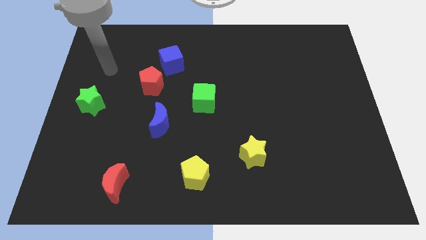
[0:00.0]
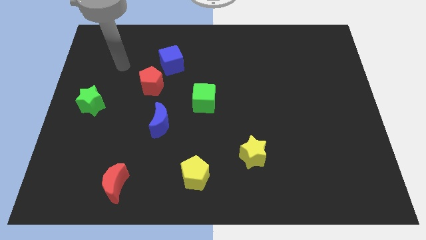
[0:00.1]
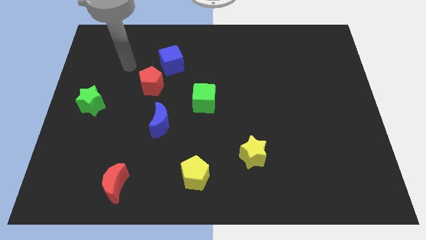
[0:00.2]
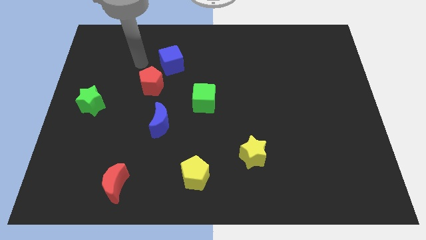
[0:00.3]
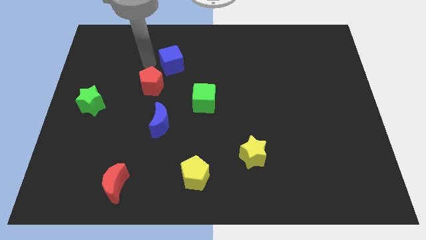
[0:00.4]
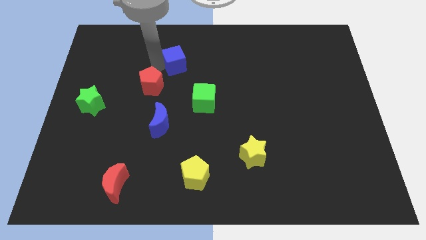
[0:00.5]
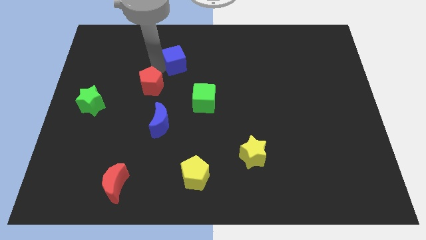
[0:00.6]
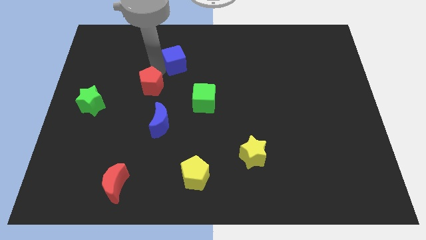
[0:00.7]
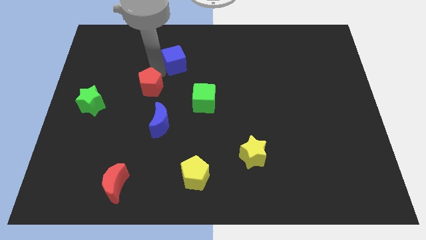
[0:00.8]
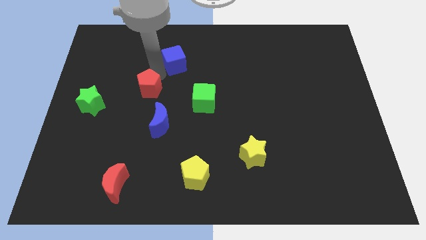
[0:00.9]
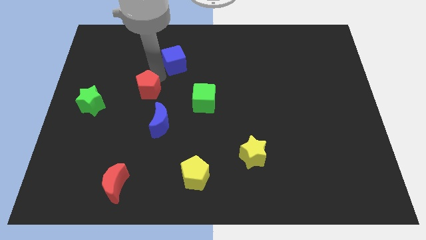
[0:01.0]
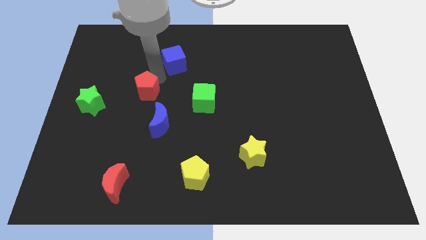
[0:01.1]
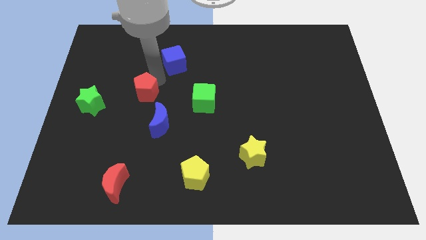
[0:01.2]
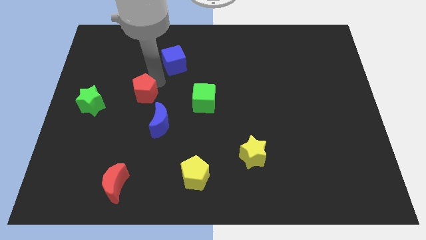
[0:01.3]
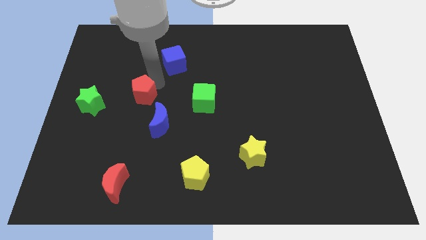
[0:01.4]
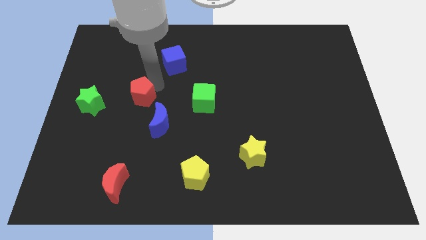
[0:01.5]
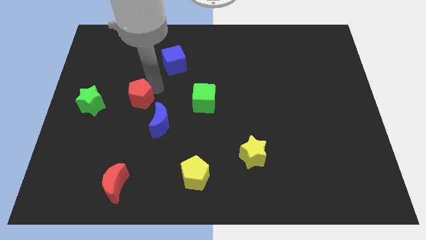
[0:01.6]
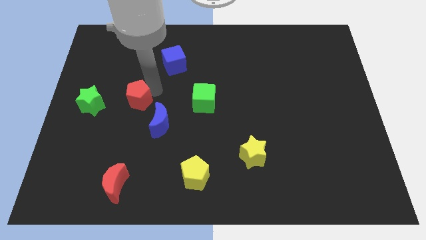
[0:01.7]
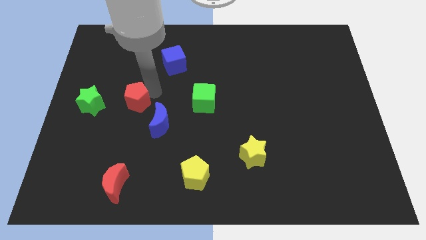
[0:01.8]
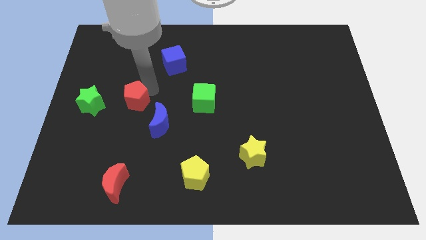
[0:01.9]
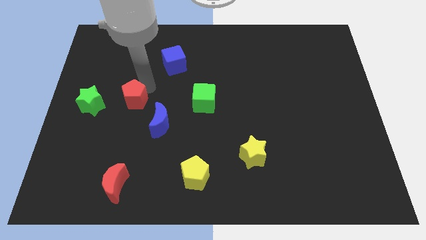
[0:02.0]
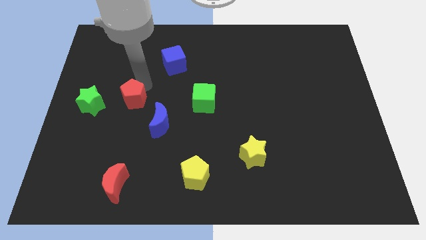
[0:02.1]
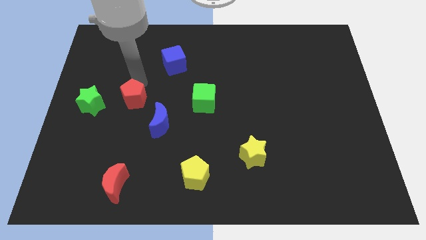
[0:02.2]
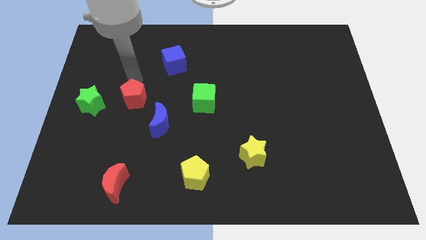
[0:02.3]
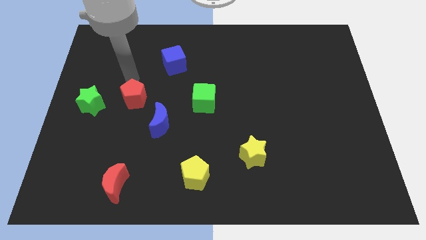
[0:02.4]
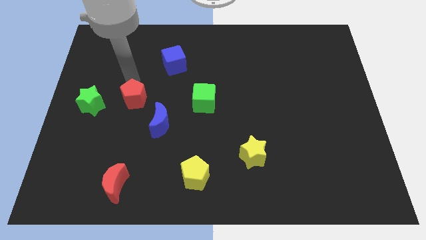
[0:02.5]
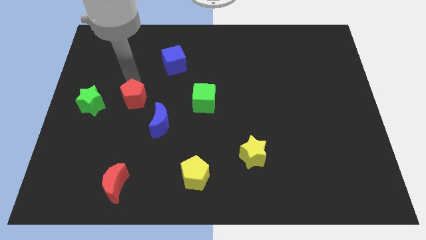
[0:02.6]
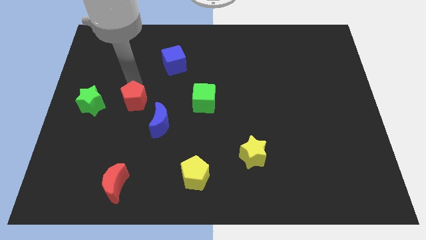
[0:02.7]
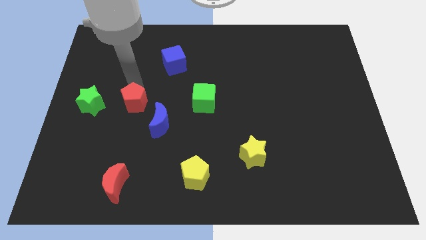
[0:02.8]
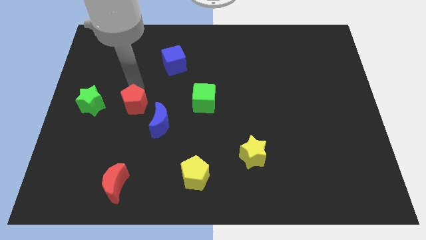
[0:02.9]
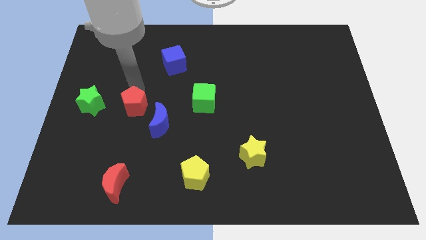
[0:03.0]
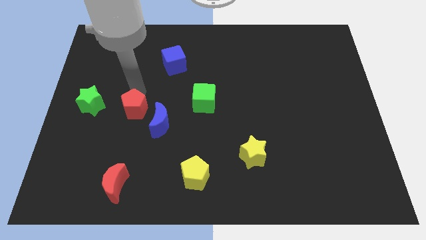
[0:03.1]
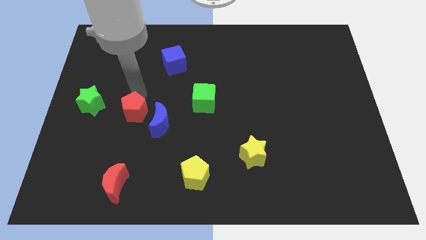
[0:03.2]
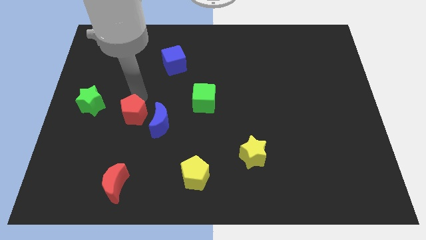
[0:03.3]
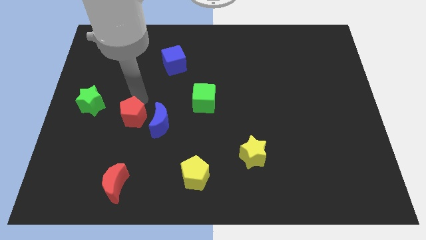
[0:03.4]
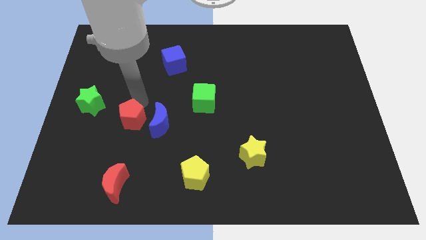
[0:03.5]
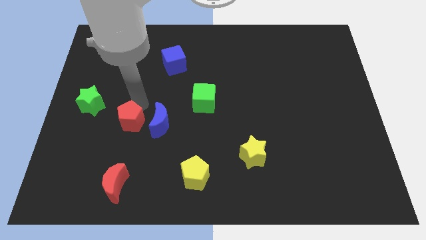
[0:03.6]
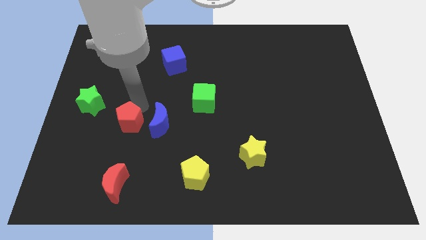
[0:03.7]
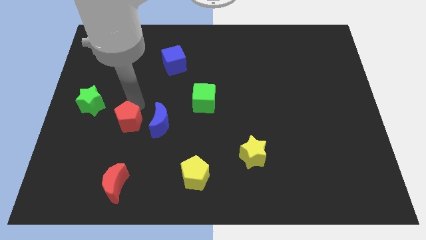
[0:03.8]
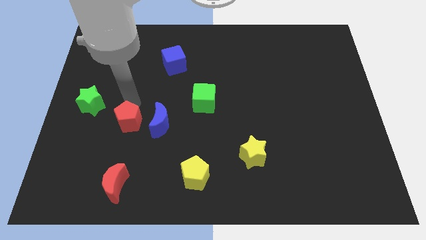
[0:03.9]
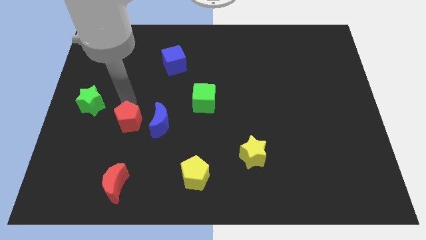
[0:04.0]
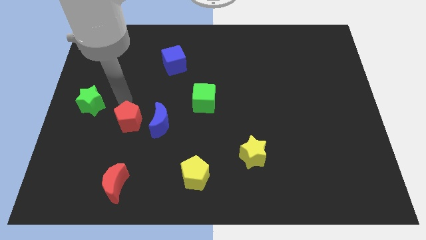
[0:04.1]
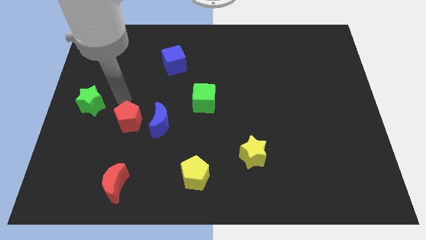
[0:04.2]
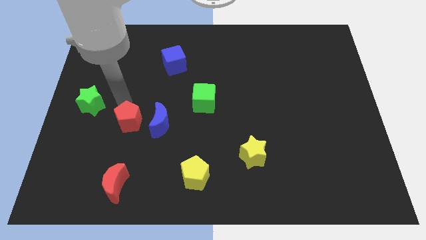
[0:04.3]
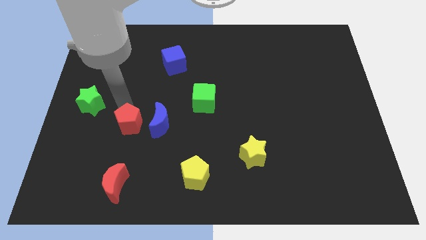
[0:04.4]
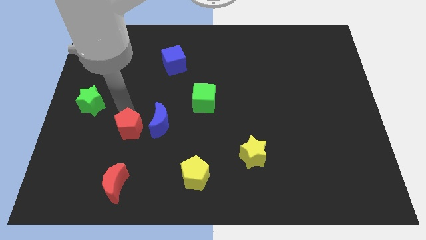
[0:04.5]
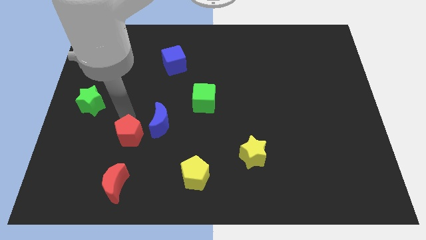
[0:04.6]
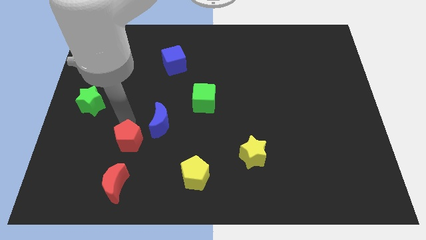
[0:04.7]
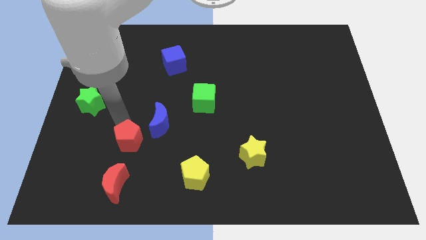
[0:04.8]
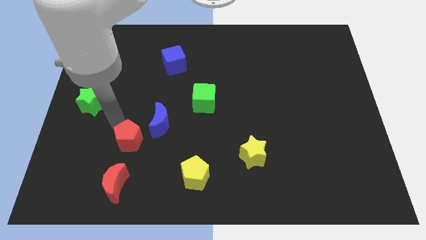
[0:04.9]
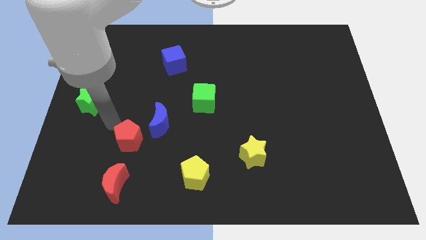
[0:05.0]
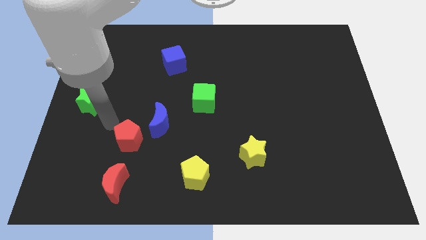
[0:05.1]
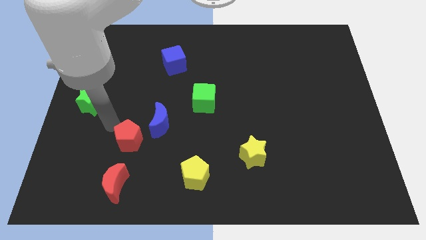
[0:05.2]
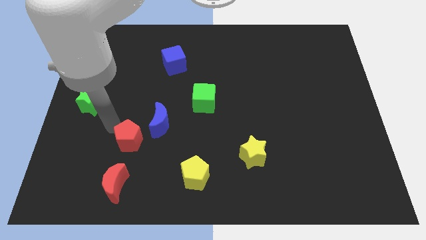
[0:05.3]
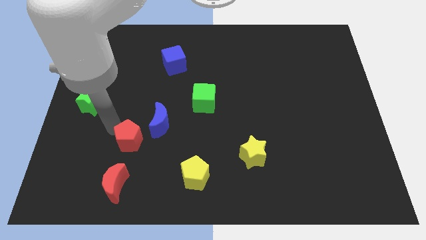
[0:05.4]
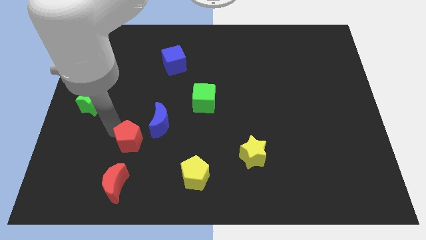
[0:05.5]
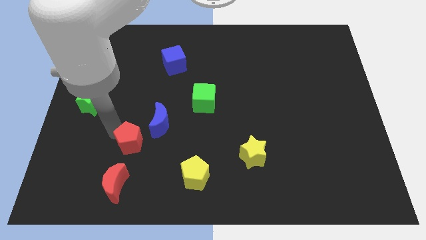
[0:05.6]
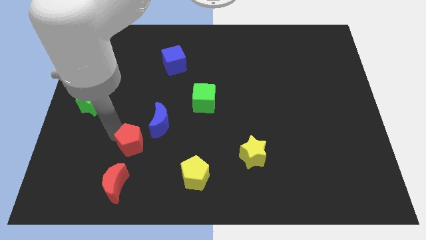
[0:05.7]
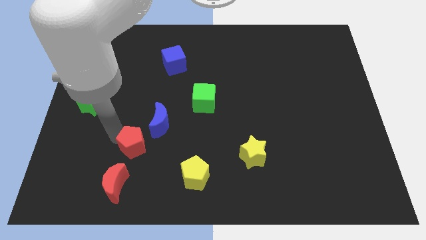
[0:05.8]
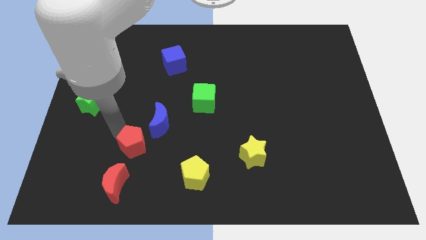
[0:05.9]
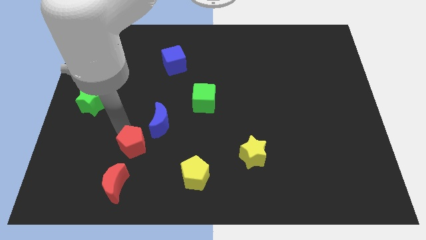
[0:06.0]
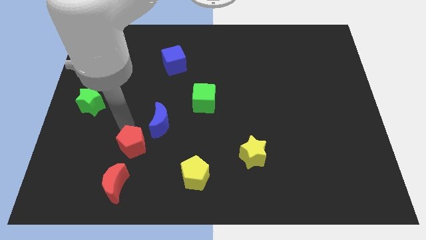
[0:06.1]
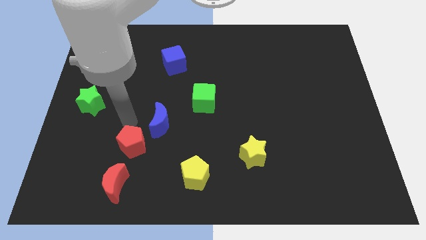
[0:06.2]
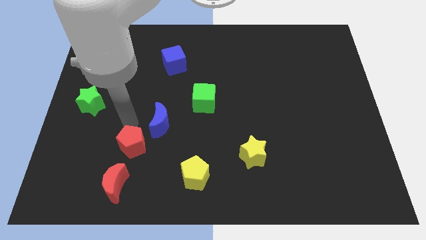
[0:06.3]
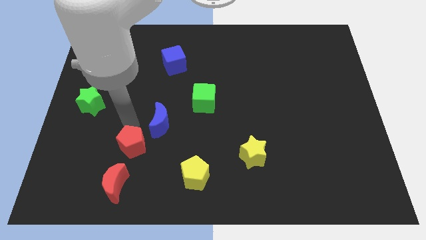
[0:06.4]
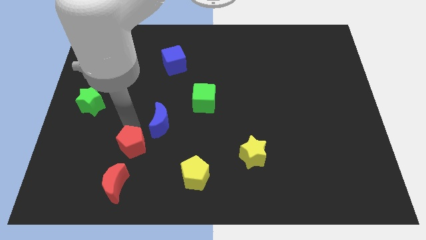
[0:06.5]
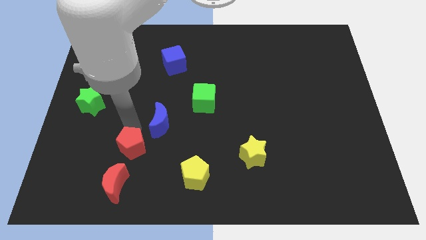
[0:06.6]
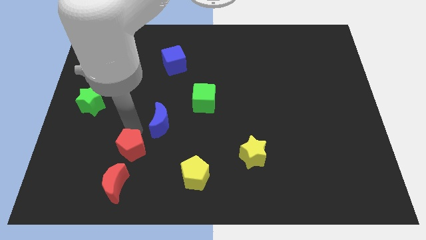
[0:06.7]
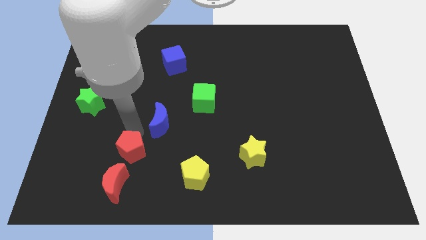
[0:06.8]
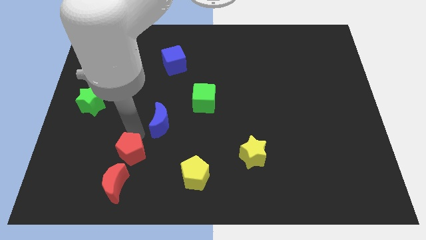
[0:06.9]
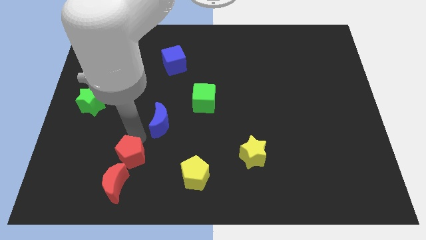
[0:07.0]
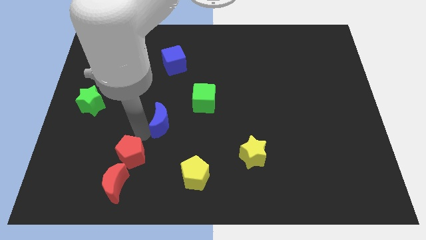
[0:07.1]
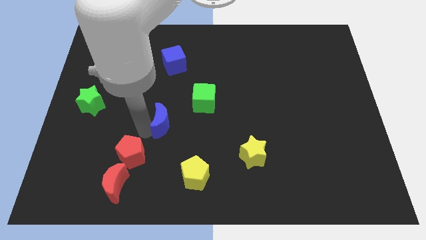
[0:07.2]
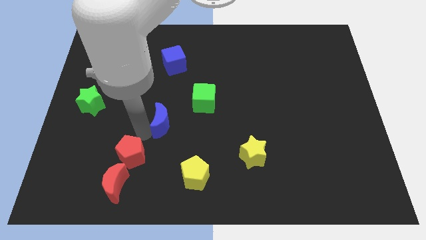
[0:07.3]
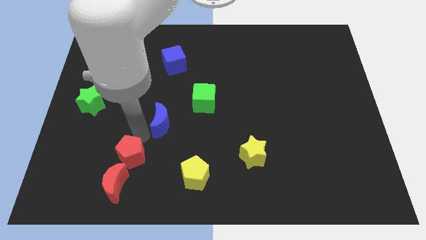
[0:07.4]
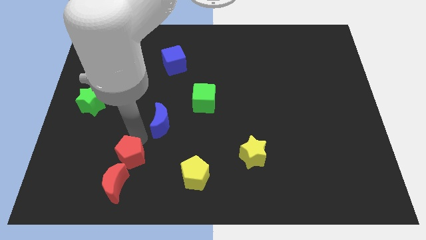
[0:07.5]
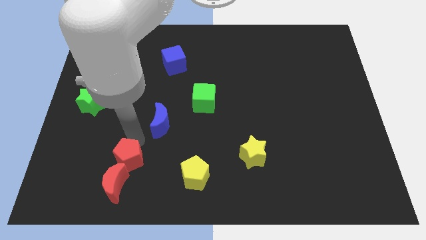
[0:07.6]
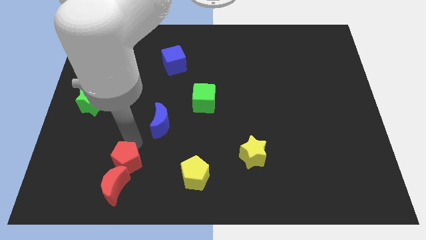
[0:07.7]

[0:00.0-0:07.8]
slide the red pentagon next to the red moon
